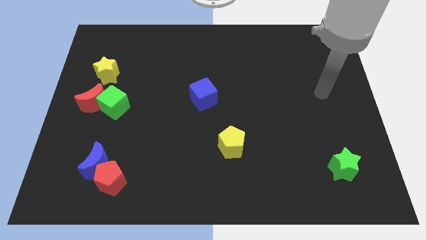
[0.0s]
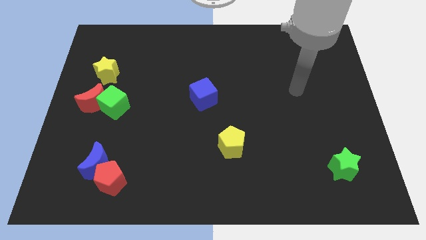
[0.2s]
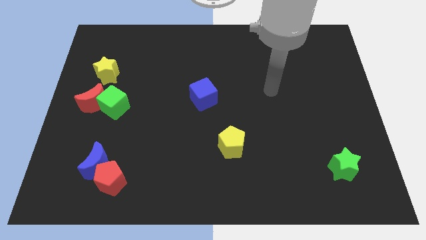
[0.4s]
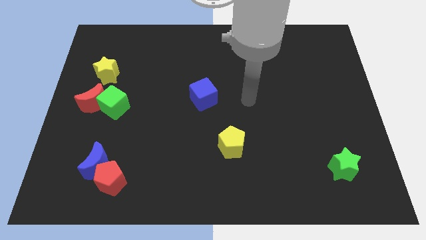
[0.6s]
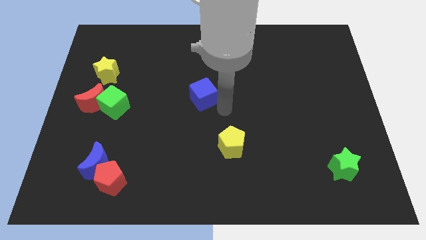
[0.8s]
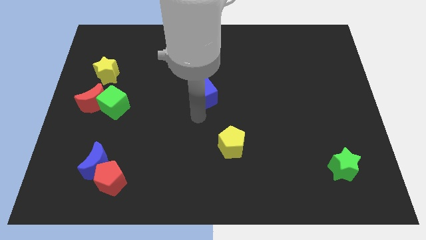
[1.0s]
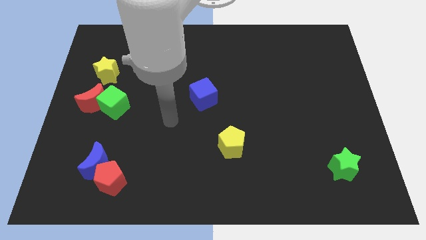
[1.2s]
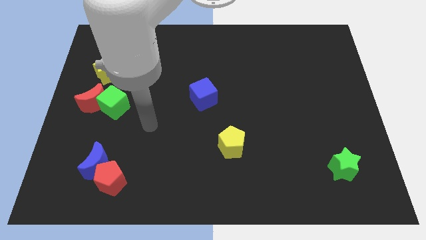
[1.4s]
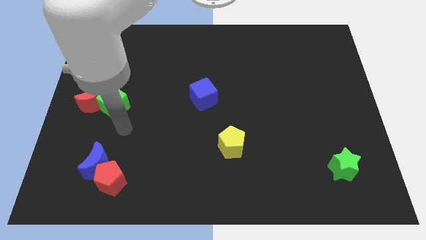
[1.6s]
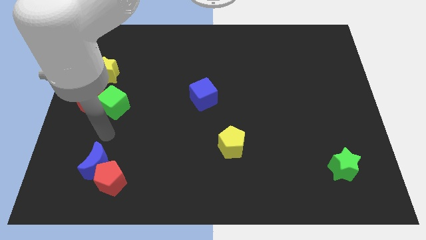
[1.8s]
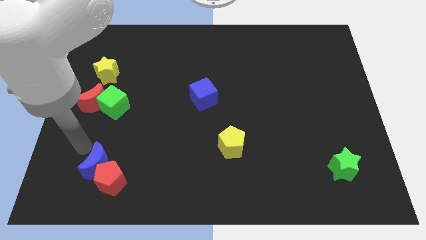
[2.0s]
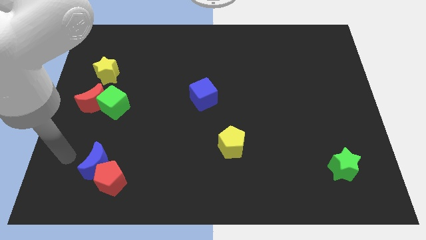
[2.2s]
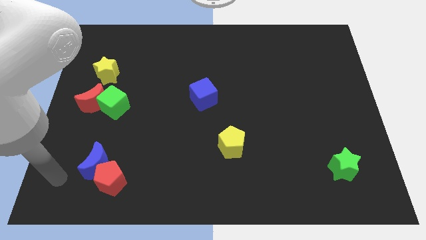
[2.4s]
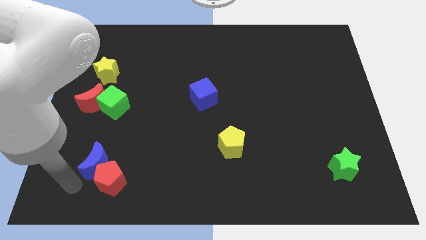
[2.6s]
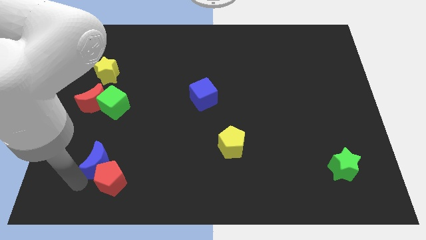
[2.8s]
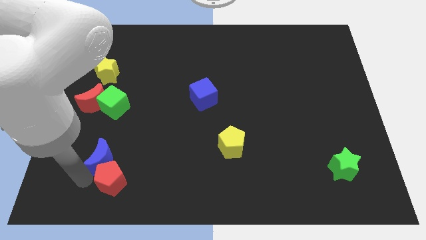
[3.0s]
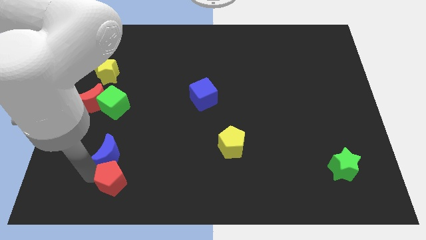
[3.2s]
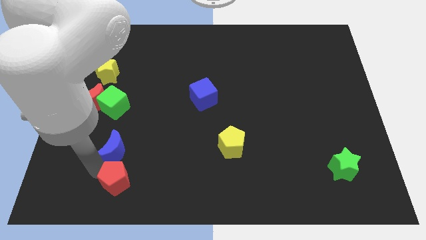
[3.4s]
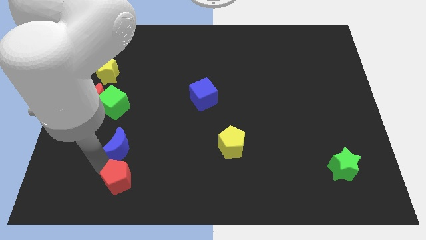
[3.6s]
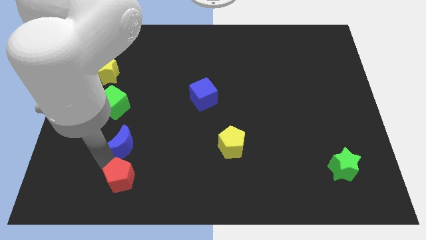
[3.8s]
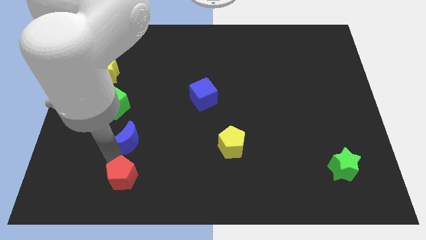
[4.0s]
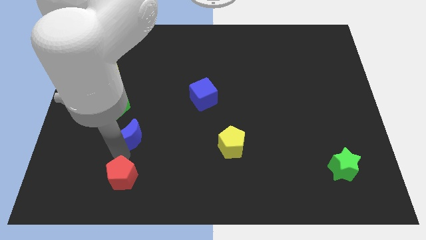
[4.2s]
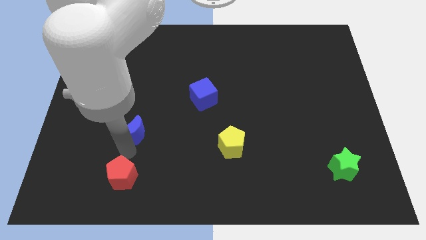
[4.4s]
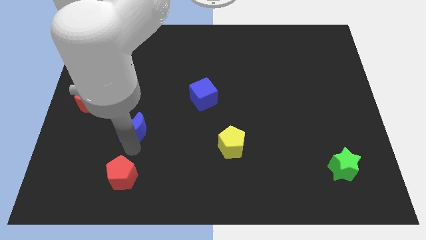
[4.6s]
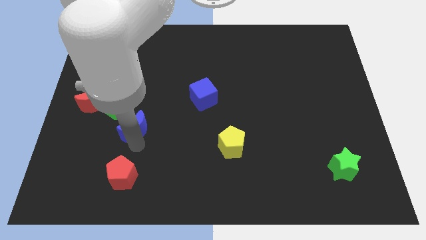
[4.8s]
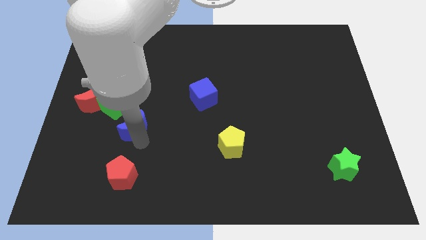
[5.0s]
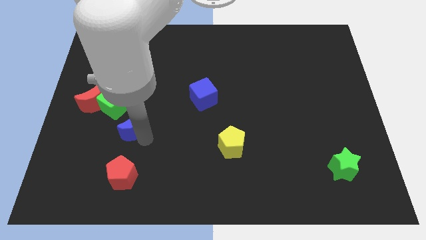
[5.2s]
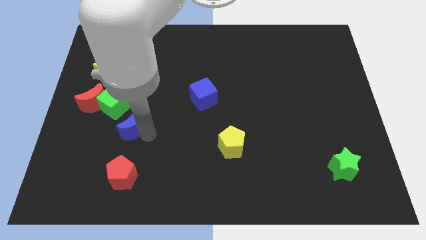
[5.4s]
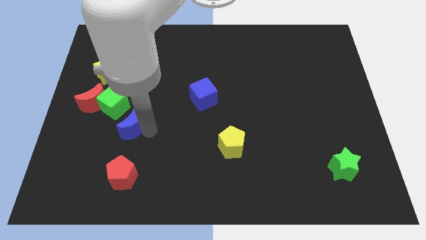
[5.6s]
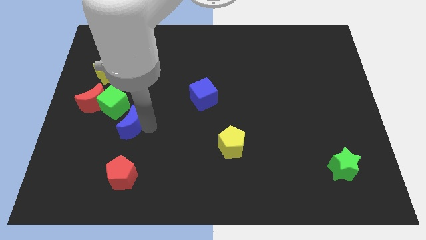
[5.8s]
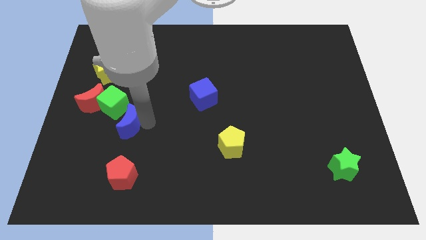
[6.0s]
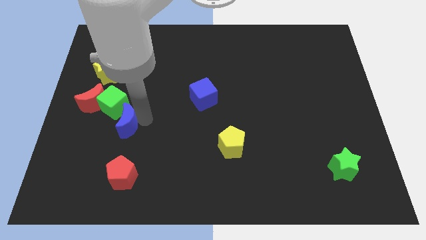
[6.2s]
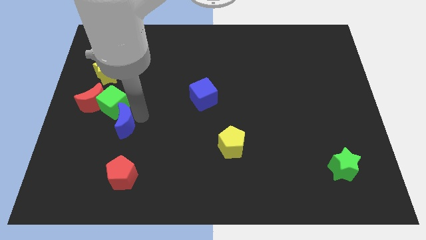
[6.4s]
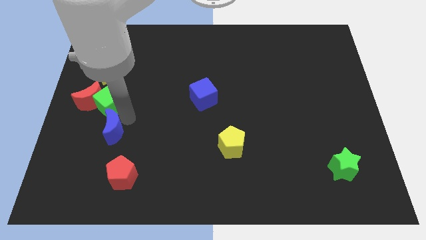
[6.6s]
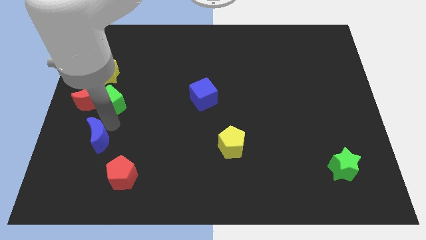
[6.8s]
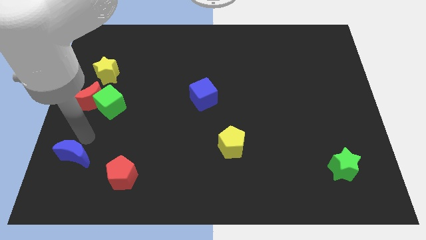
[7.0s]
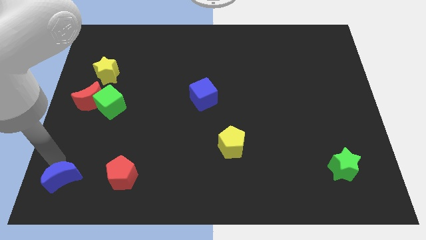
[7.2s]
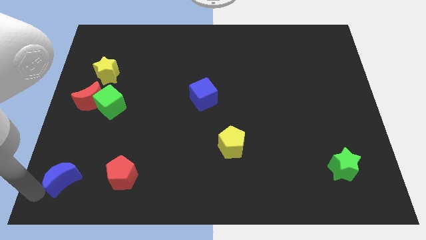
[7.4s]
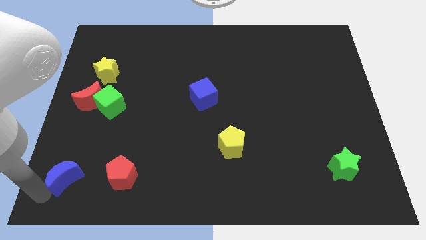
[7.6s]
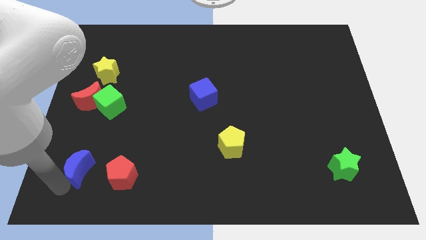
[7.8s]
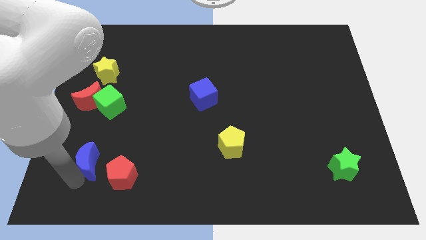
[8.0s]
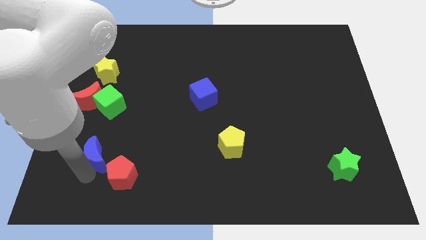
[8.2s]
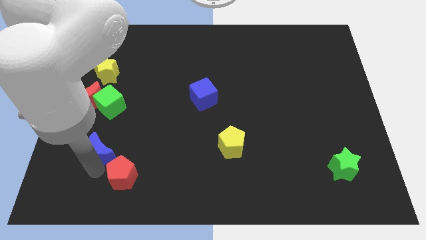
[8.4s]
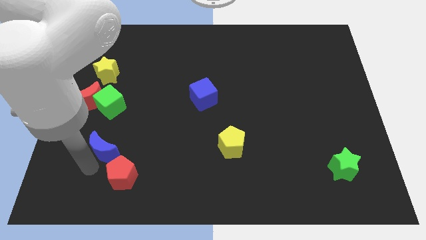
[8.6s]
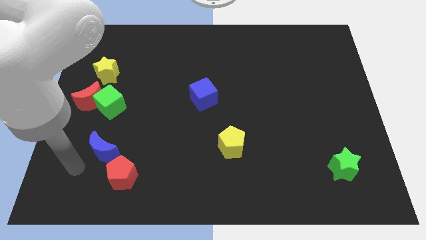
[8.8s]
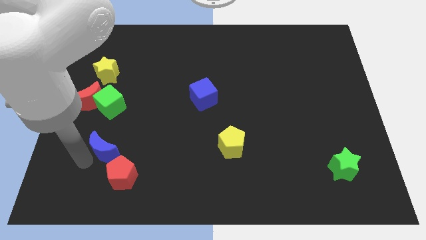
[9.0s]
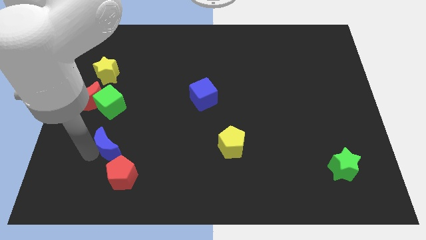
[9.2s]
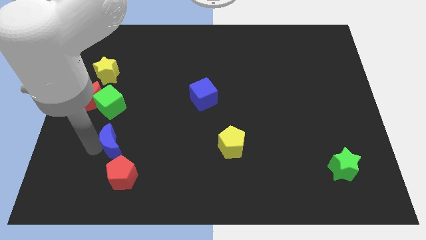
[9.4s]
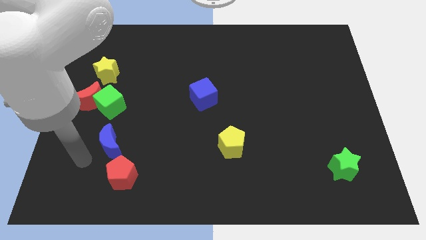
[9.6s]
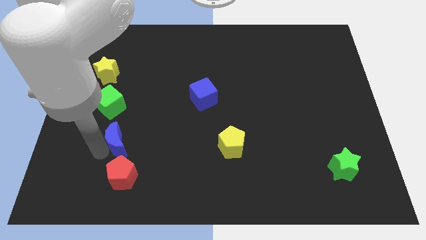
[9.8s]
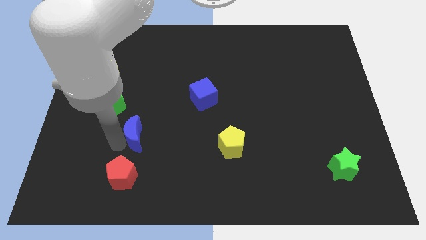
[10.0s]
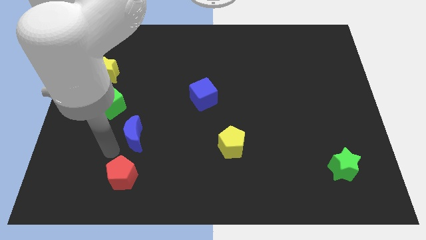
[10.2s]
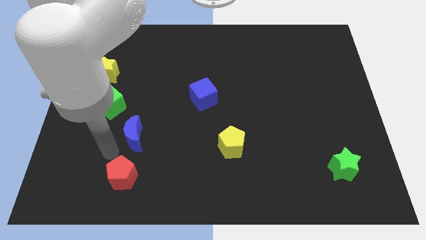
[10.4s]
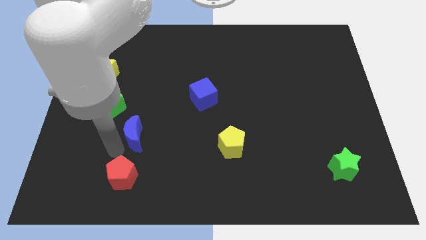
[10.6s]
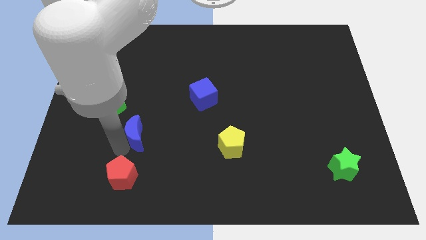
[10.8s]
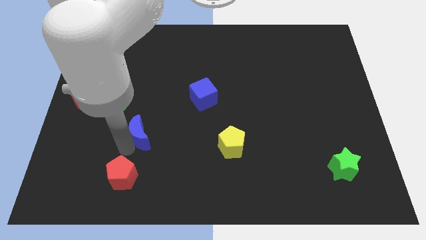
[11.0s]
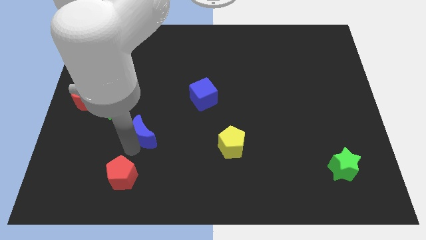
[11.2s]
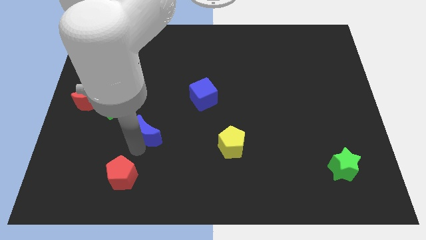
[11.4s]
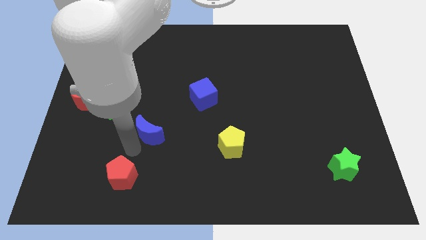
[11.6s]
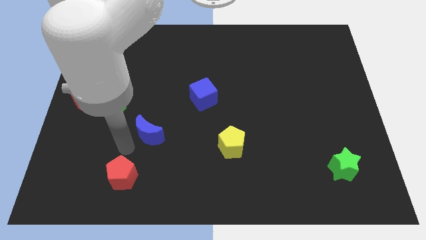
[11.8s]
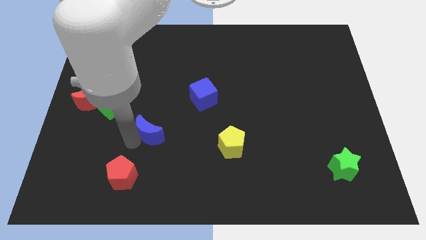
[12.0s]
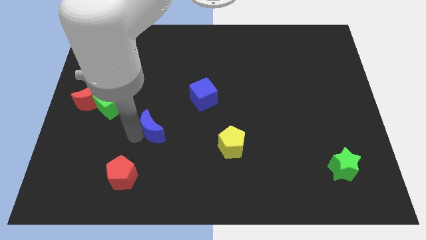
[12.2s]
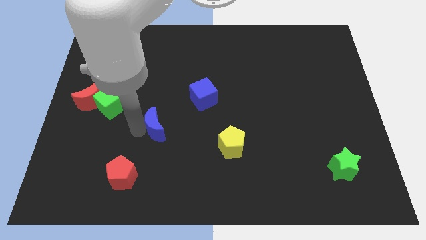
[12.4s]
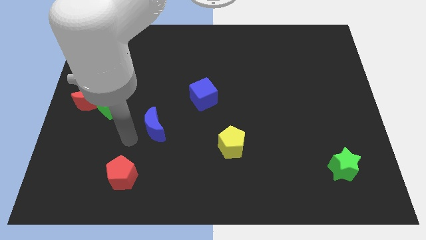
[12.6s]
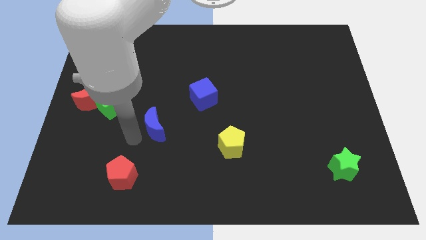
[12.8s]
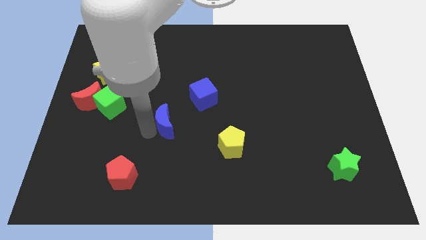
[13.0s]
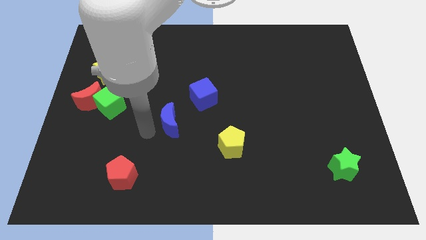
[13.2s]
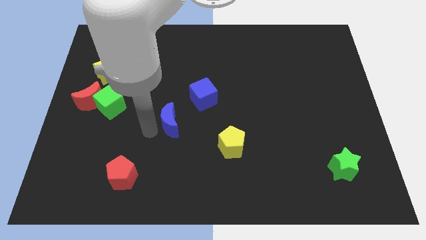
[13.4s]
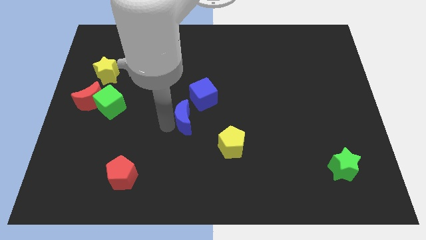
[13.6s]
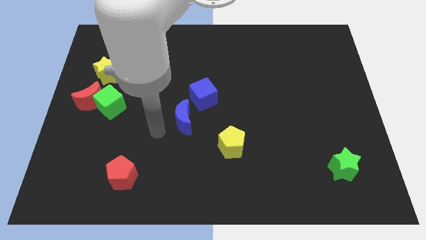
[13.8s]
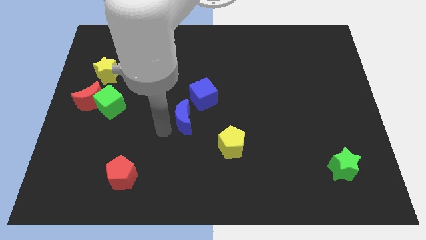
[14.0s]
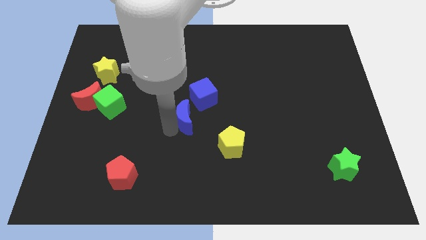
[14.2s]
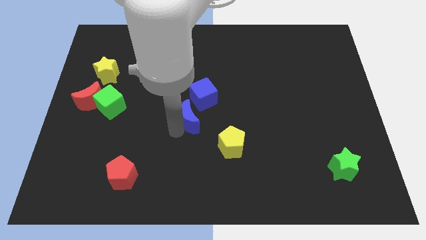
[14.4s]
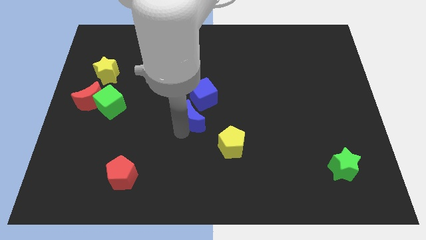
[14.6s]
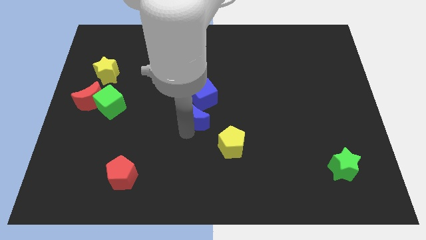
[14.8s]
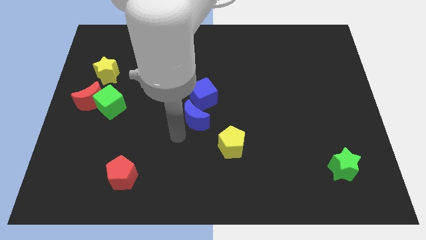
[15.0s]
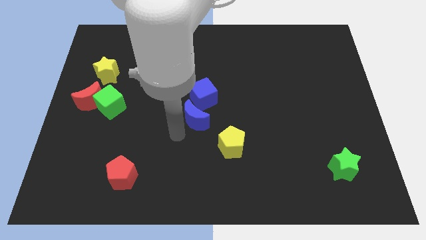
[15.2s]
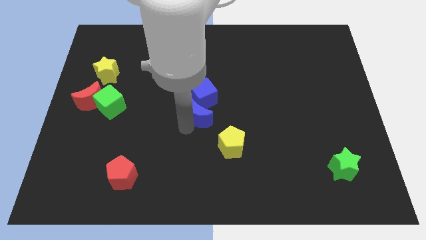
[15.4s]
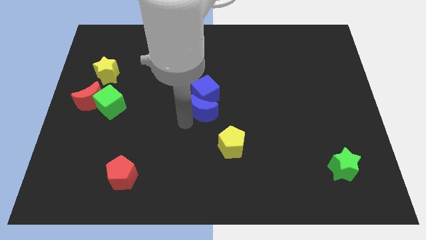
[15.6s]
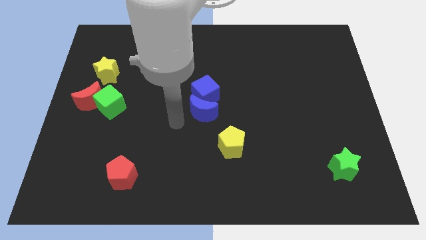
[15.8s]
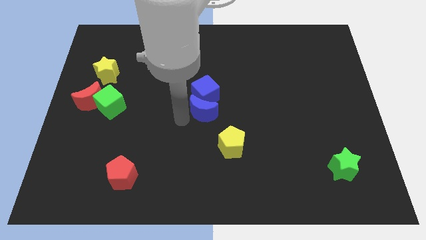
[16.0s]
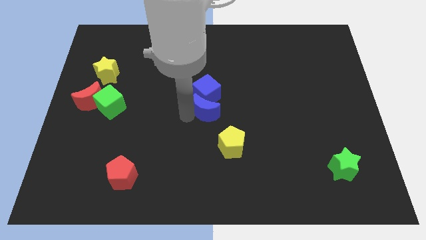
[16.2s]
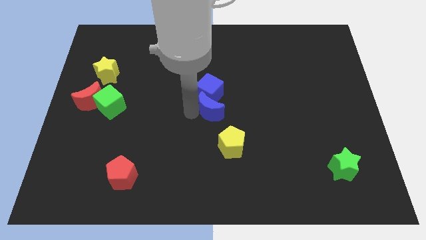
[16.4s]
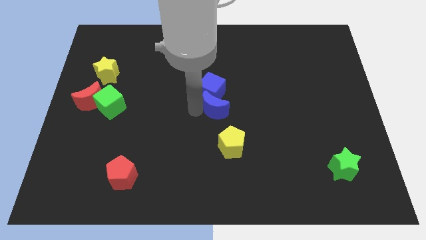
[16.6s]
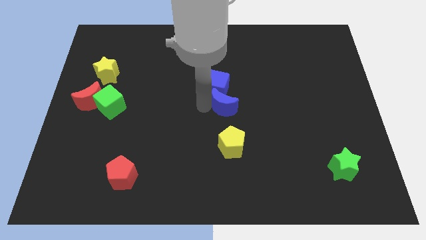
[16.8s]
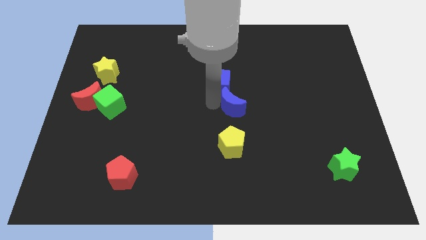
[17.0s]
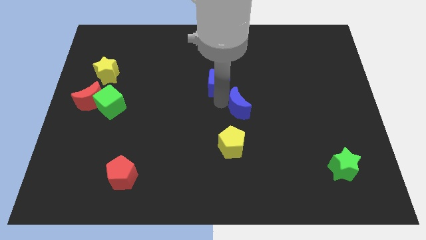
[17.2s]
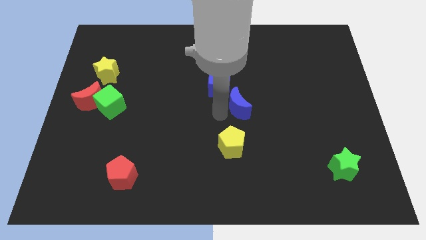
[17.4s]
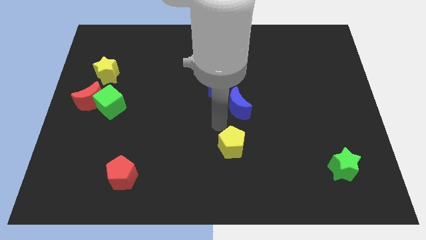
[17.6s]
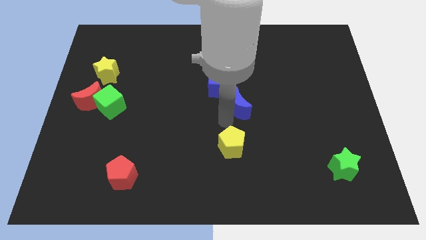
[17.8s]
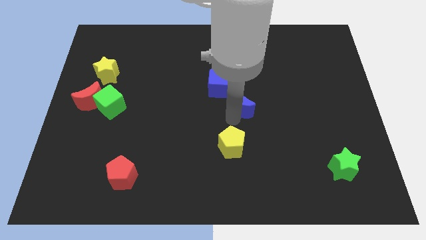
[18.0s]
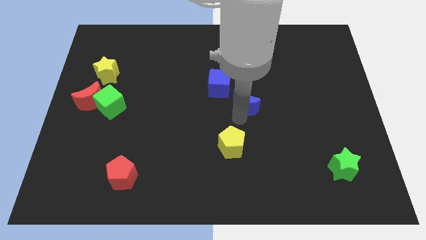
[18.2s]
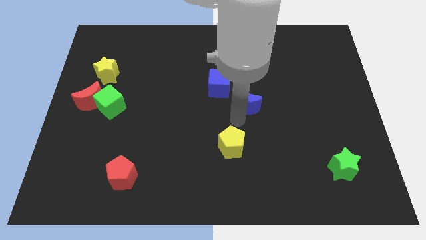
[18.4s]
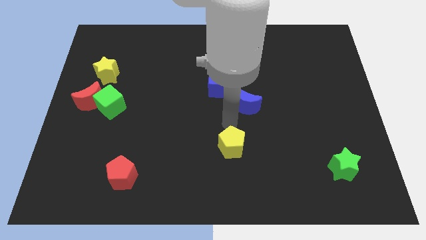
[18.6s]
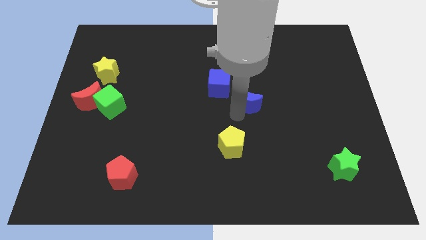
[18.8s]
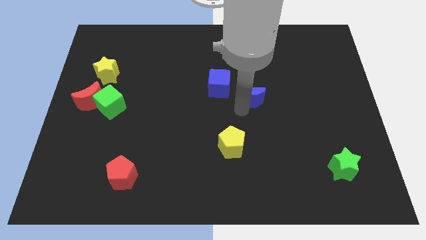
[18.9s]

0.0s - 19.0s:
put the blue moon right of the blue cube
